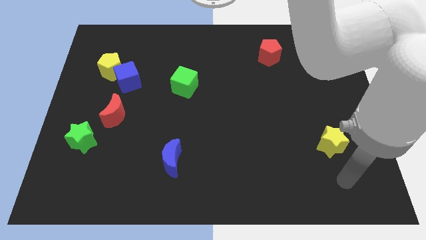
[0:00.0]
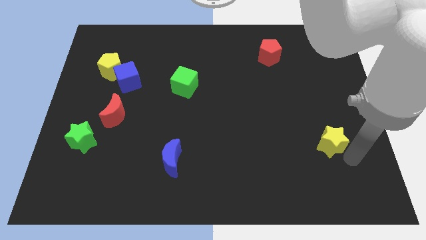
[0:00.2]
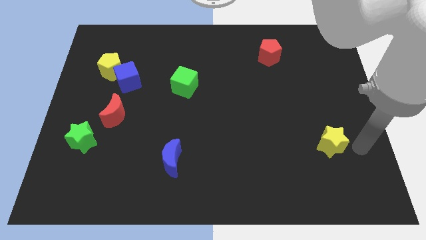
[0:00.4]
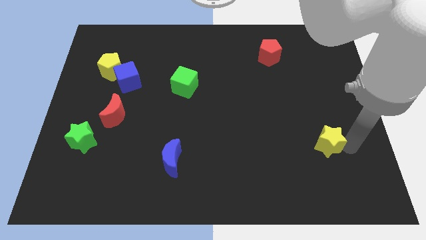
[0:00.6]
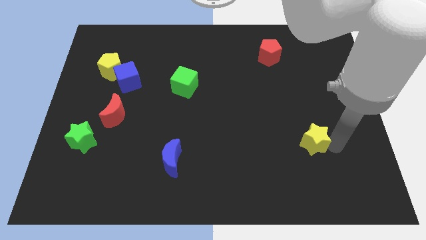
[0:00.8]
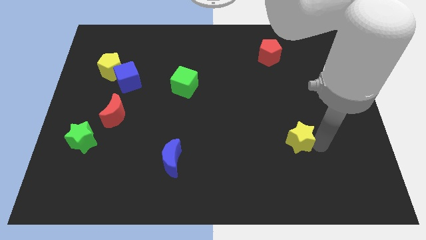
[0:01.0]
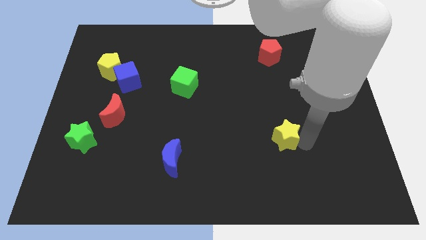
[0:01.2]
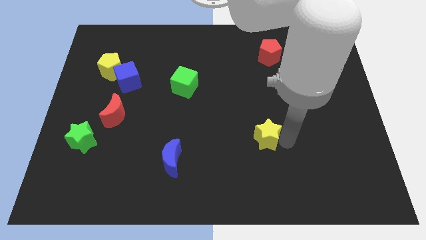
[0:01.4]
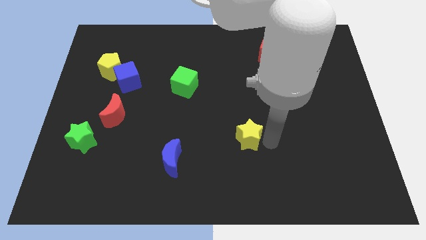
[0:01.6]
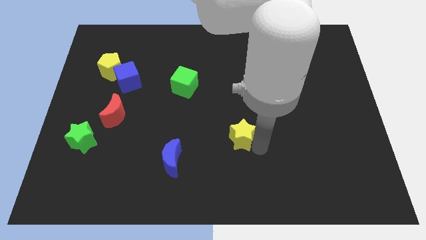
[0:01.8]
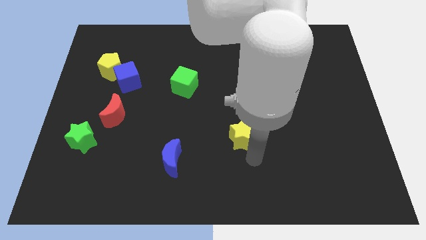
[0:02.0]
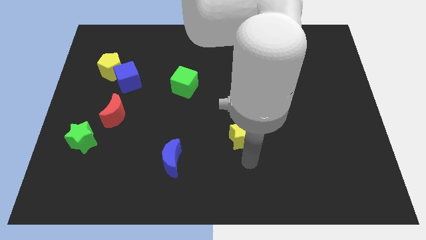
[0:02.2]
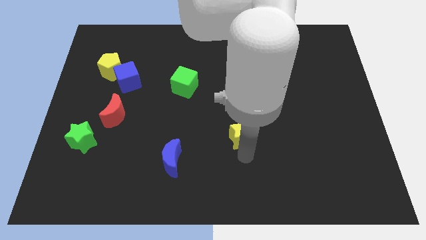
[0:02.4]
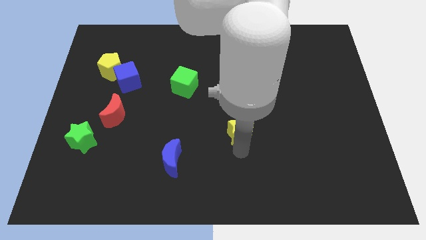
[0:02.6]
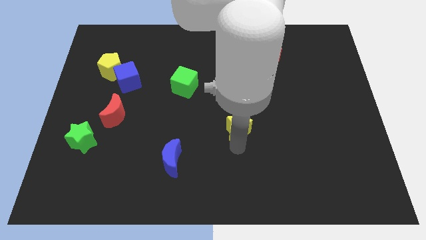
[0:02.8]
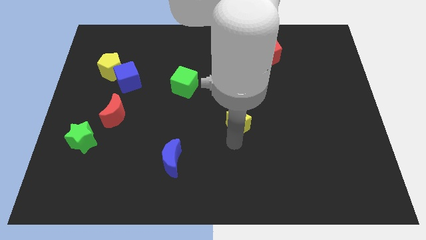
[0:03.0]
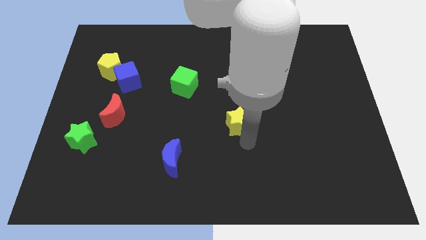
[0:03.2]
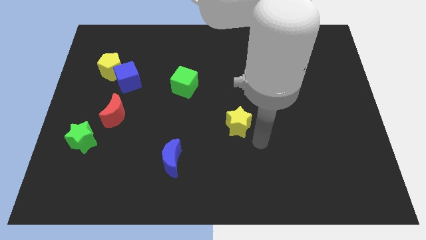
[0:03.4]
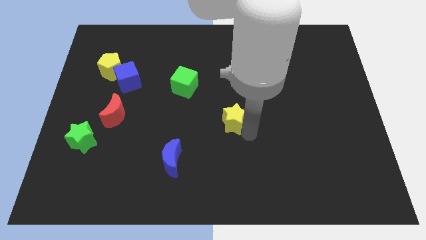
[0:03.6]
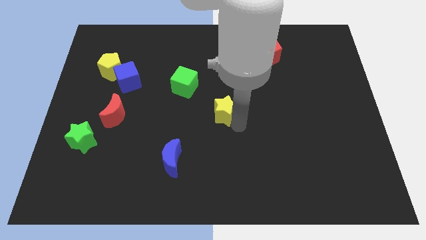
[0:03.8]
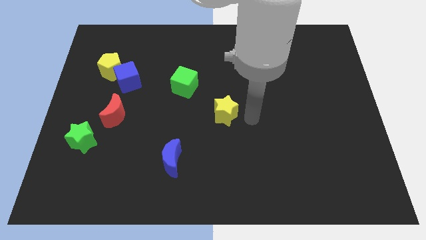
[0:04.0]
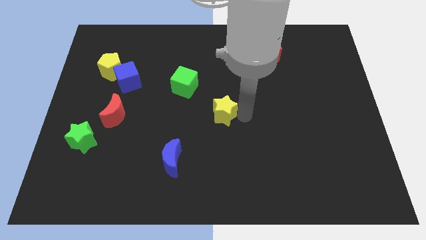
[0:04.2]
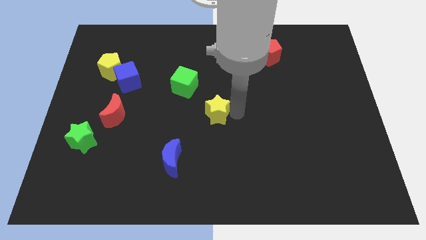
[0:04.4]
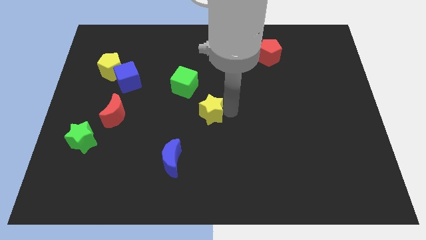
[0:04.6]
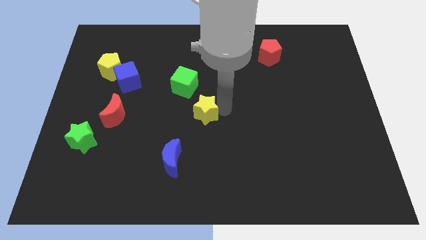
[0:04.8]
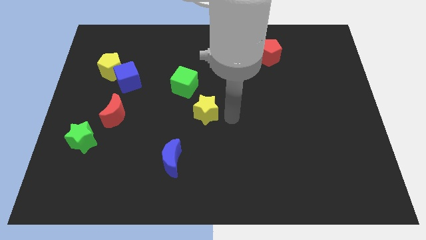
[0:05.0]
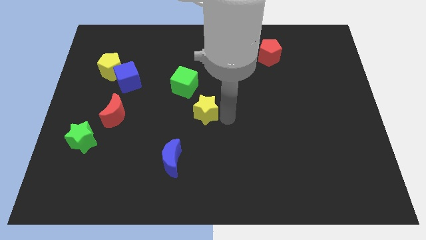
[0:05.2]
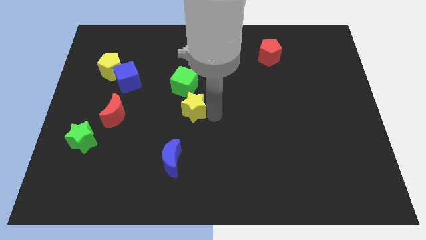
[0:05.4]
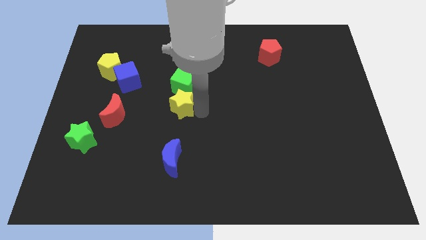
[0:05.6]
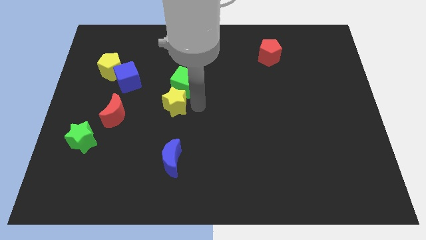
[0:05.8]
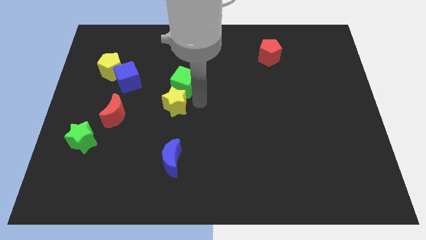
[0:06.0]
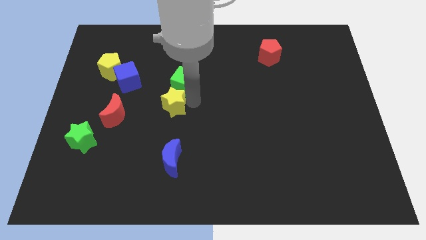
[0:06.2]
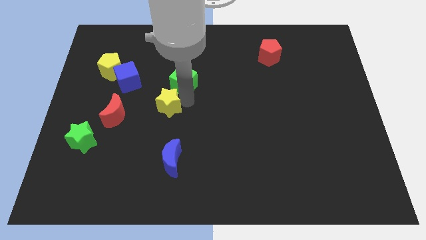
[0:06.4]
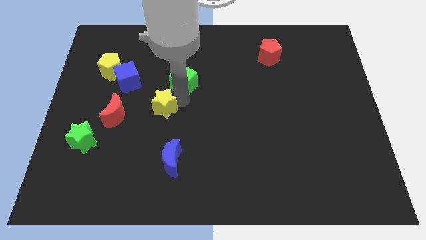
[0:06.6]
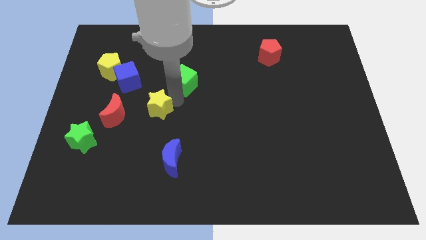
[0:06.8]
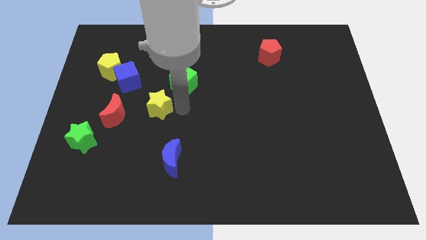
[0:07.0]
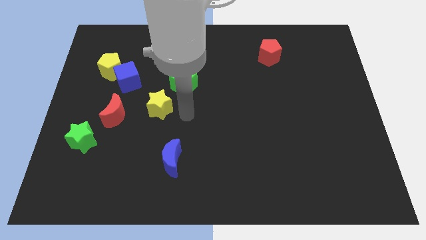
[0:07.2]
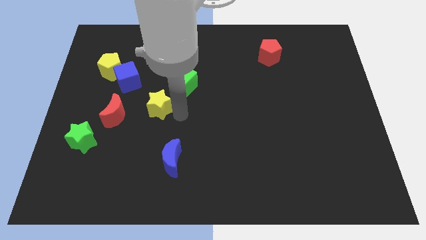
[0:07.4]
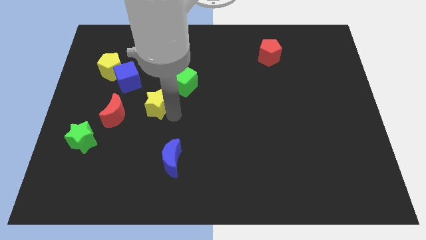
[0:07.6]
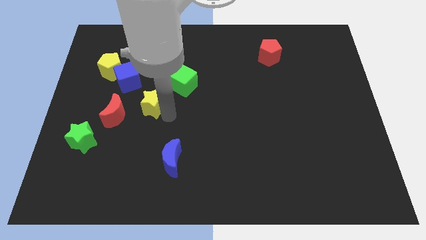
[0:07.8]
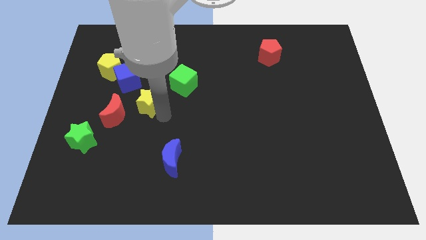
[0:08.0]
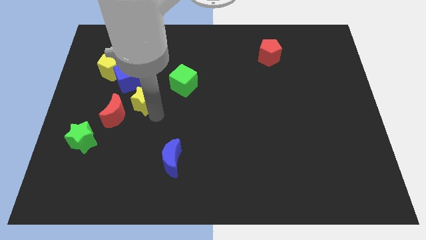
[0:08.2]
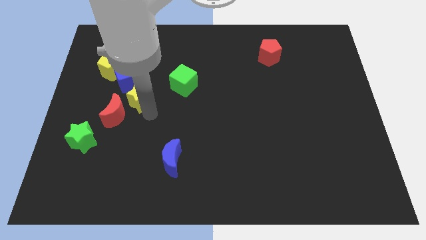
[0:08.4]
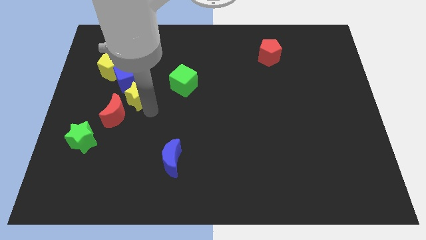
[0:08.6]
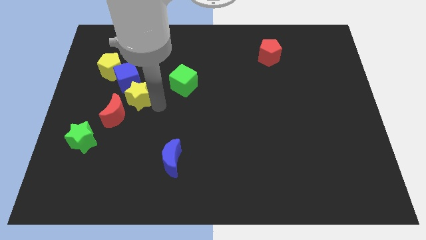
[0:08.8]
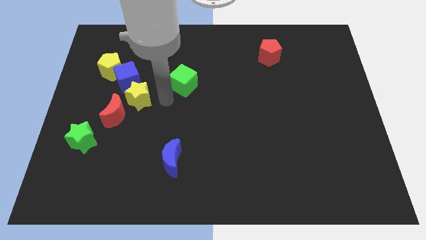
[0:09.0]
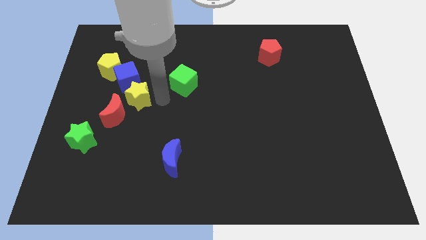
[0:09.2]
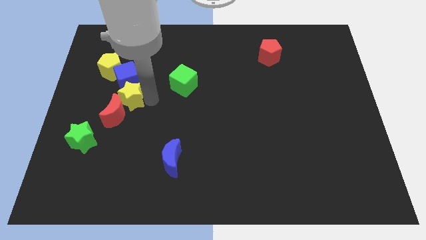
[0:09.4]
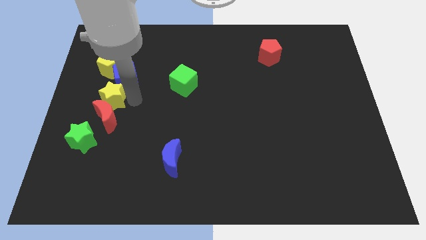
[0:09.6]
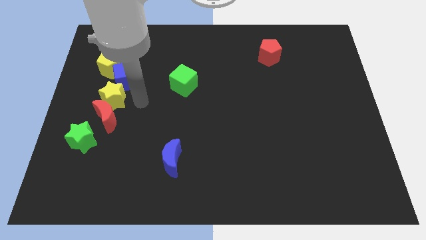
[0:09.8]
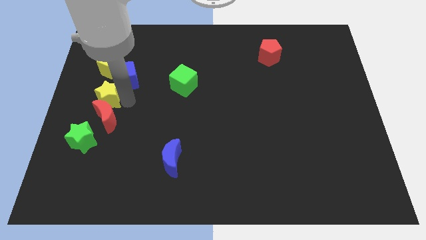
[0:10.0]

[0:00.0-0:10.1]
push the yellow star to the center left

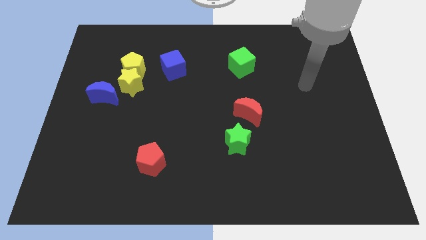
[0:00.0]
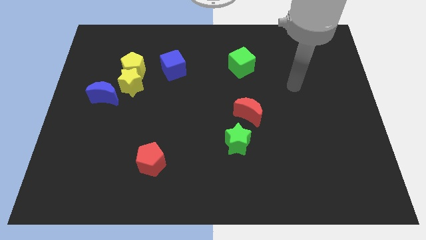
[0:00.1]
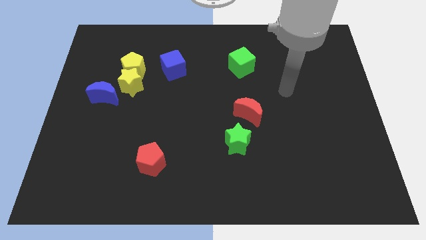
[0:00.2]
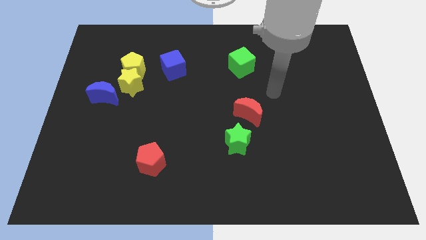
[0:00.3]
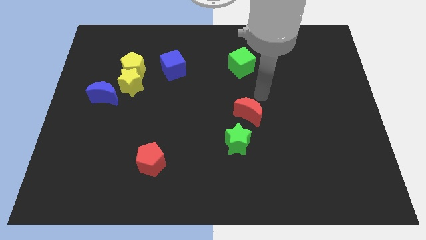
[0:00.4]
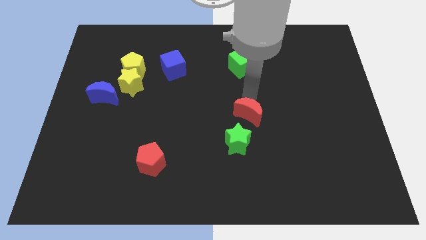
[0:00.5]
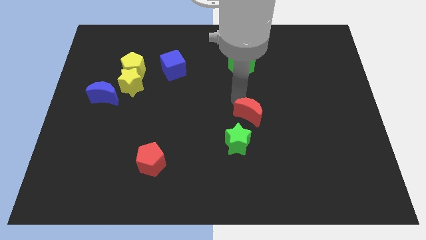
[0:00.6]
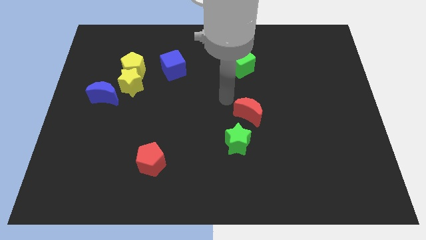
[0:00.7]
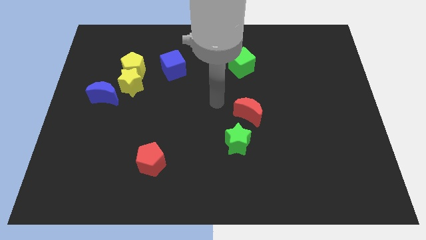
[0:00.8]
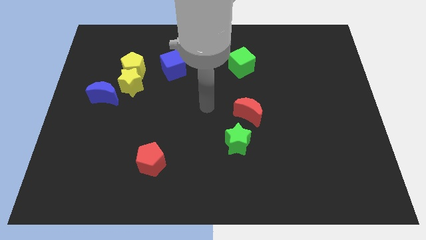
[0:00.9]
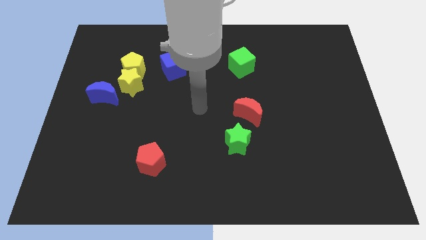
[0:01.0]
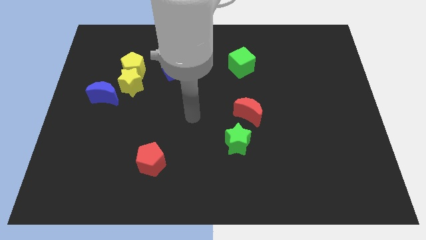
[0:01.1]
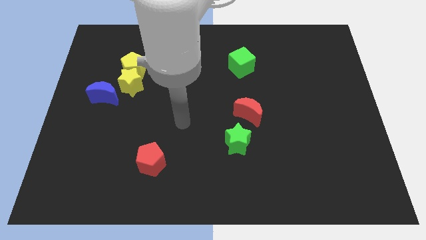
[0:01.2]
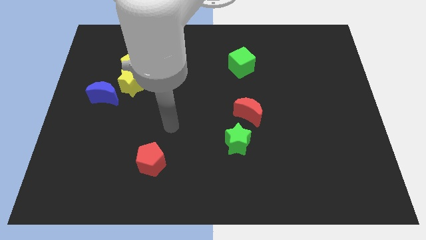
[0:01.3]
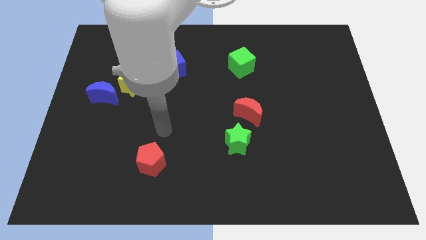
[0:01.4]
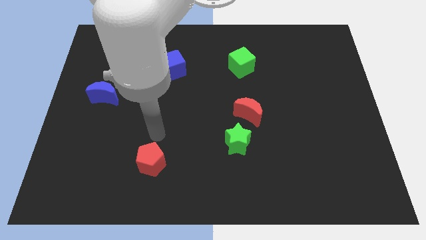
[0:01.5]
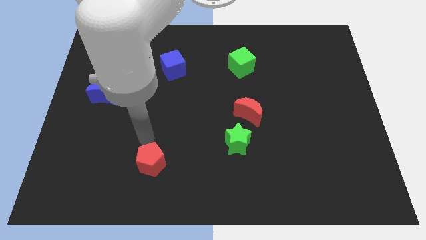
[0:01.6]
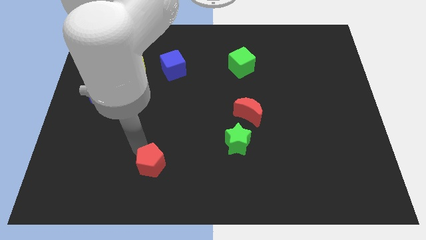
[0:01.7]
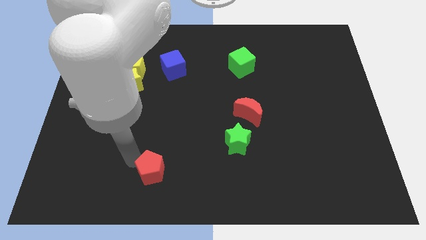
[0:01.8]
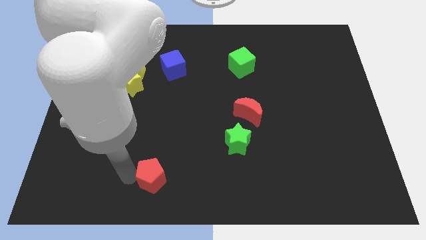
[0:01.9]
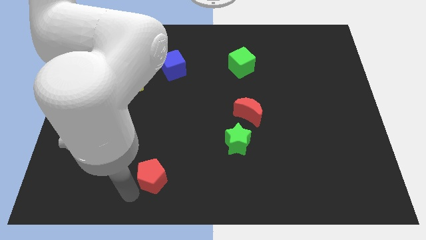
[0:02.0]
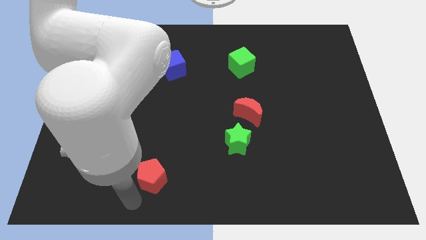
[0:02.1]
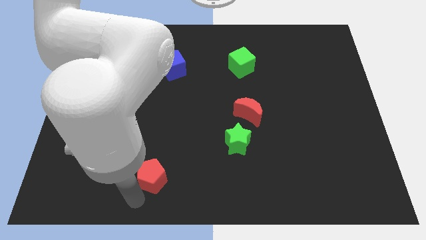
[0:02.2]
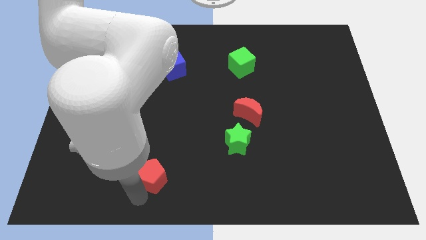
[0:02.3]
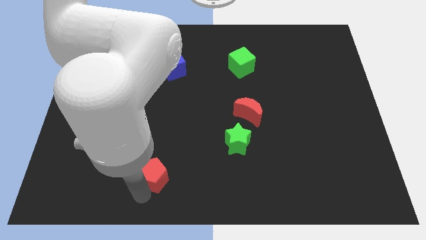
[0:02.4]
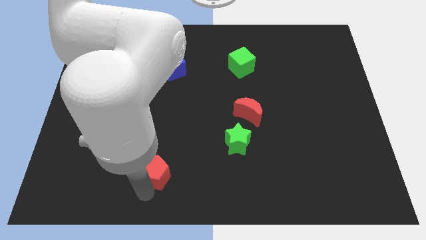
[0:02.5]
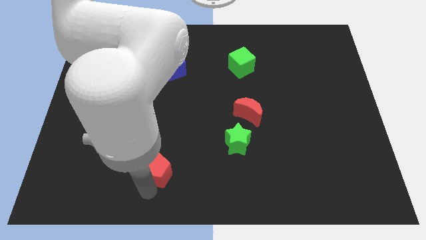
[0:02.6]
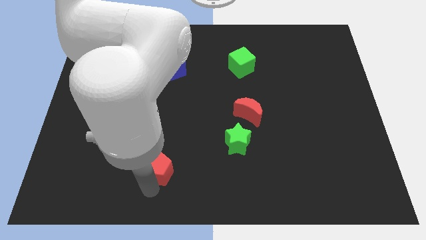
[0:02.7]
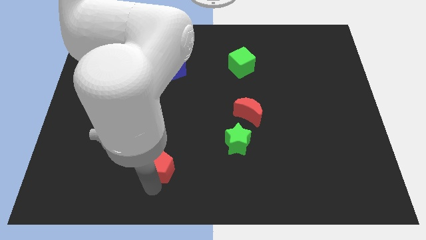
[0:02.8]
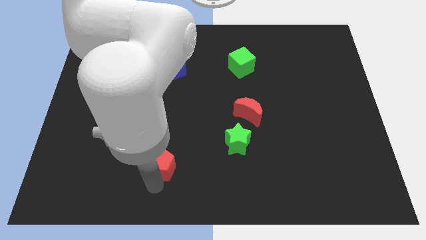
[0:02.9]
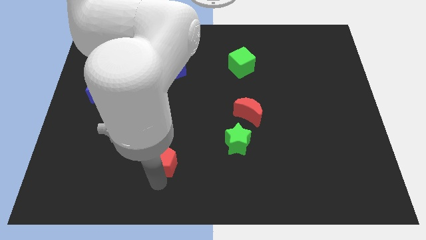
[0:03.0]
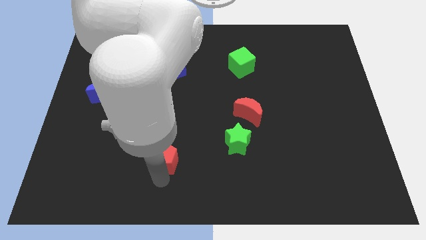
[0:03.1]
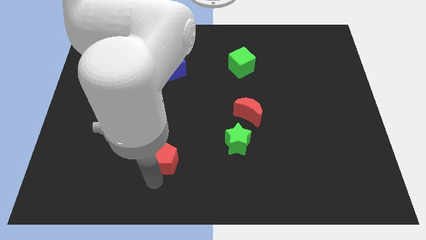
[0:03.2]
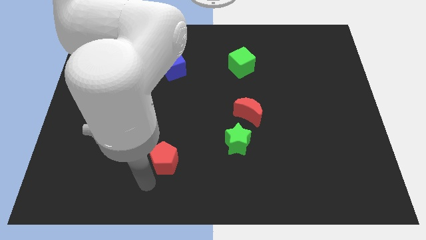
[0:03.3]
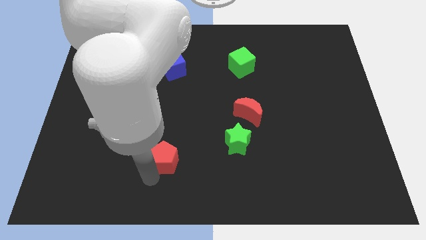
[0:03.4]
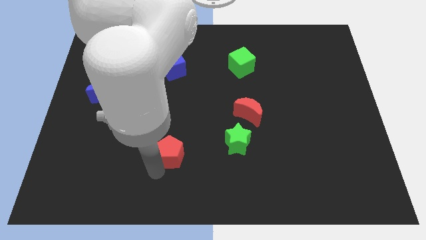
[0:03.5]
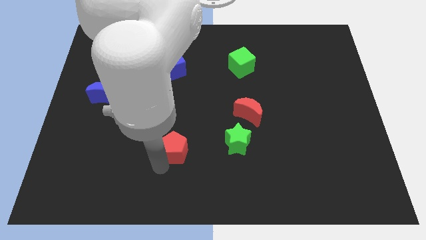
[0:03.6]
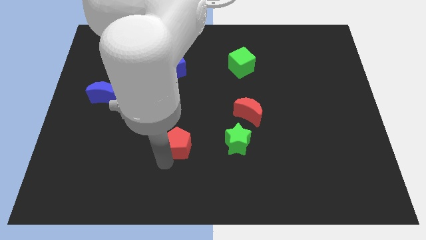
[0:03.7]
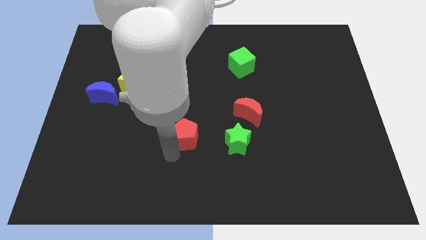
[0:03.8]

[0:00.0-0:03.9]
push the red pentagon to the center
